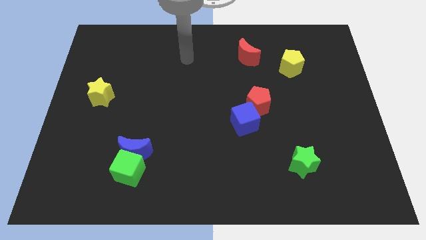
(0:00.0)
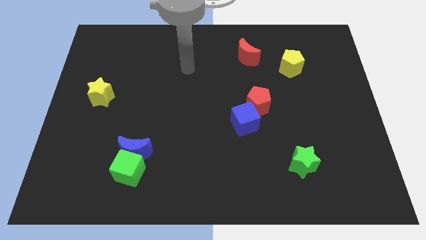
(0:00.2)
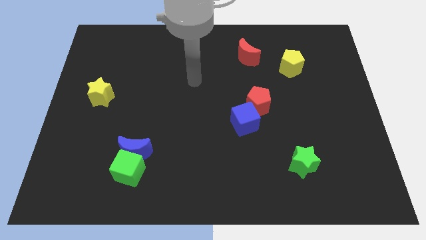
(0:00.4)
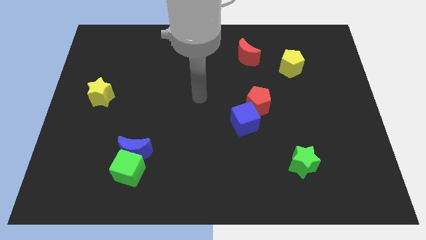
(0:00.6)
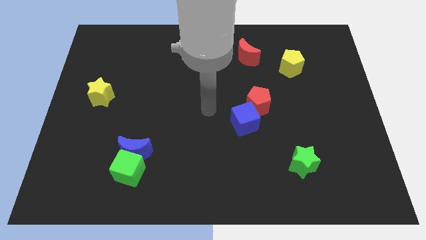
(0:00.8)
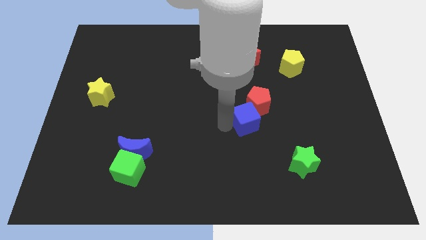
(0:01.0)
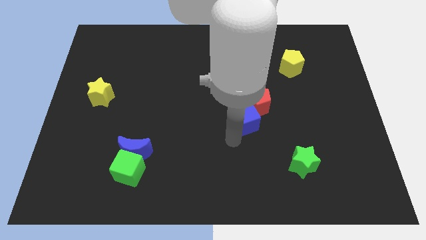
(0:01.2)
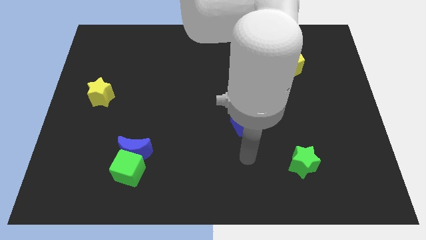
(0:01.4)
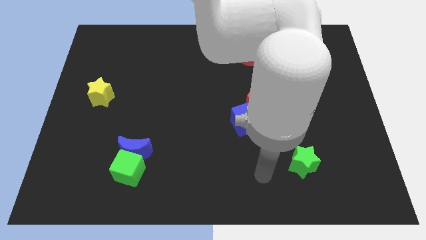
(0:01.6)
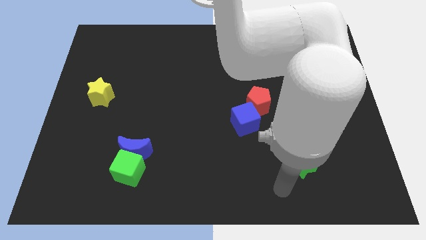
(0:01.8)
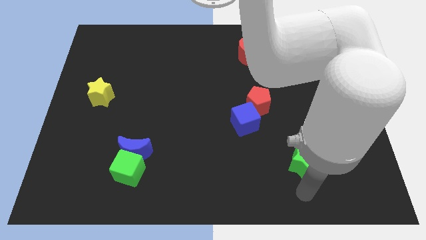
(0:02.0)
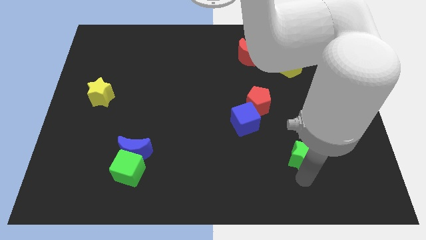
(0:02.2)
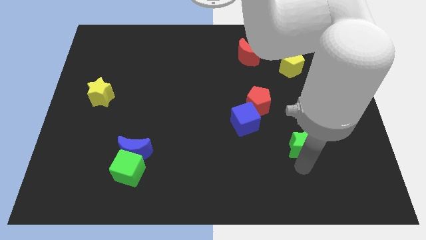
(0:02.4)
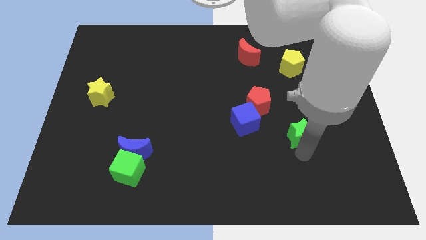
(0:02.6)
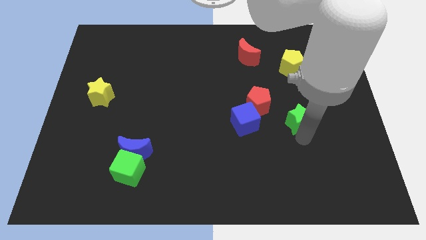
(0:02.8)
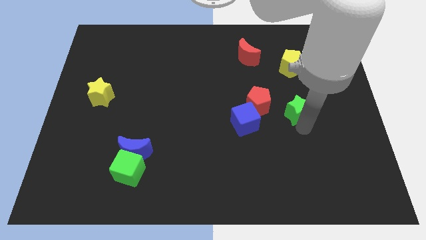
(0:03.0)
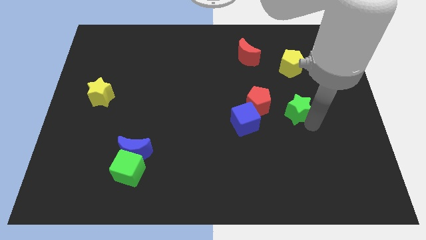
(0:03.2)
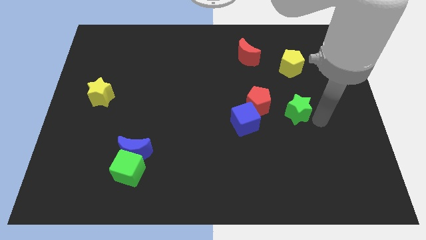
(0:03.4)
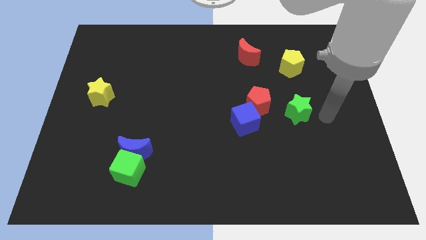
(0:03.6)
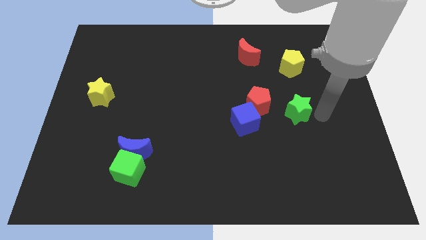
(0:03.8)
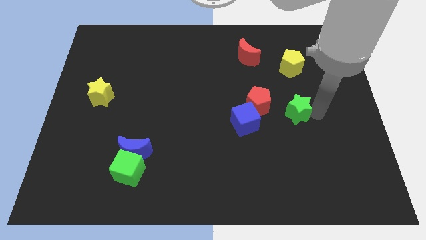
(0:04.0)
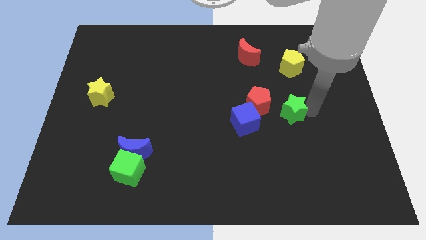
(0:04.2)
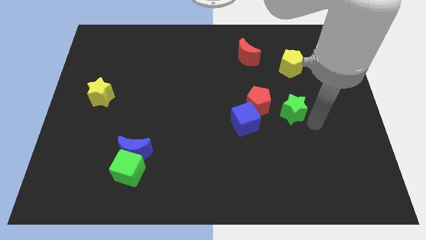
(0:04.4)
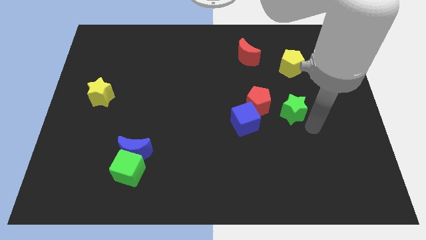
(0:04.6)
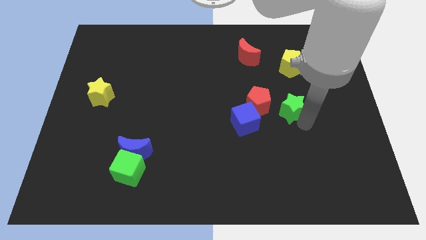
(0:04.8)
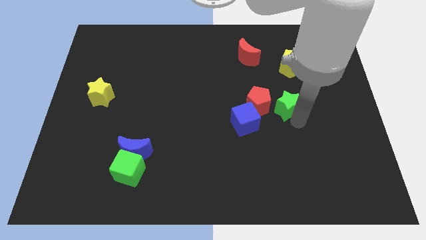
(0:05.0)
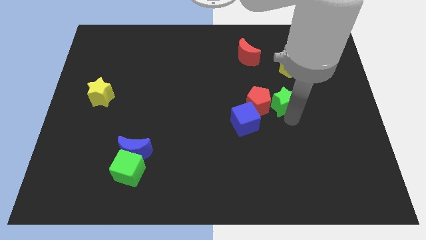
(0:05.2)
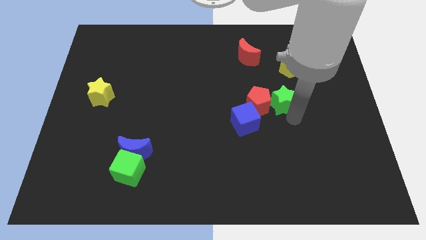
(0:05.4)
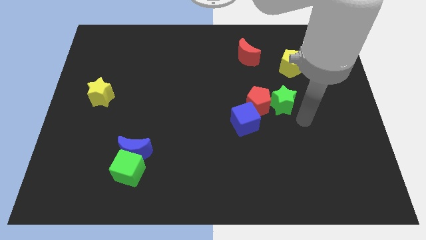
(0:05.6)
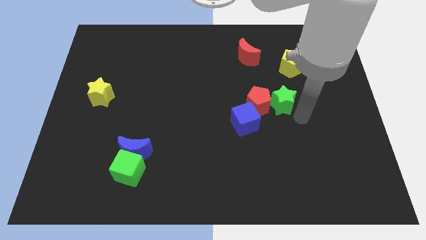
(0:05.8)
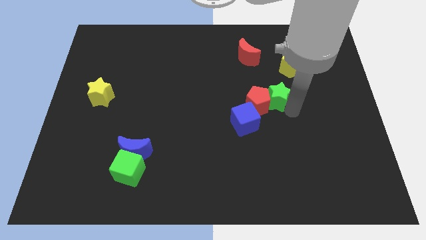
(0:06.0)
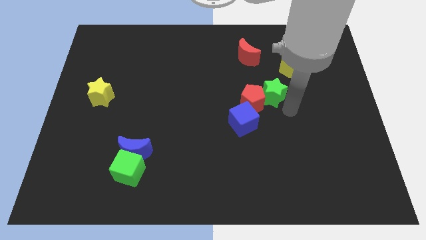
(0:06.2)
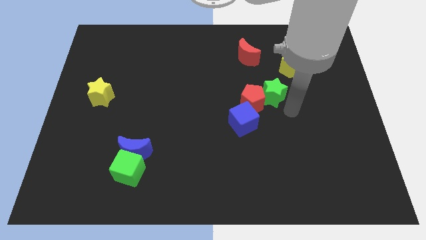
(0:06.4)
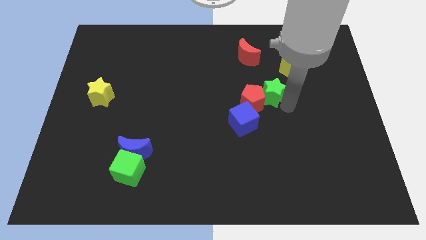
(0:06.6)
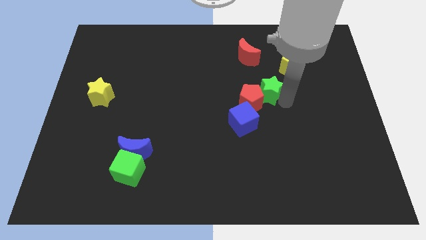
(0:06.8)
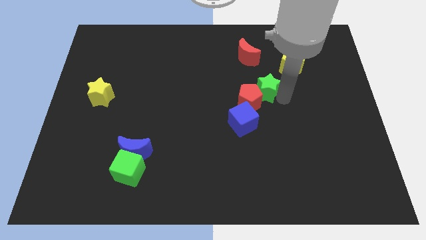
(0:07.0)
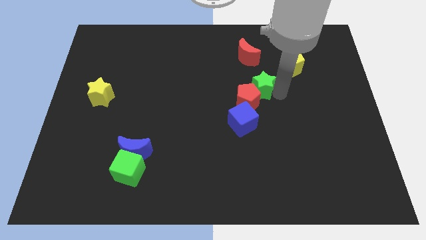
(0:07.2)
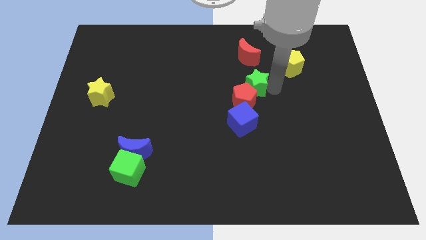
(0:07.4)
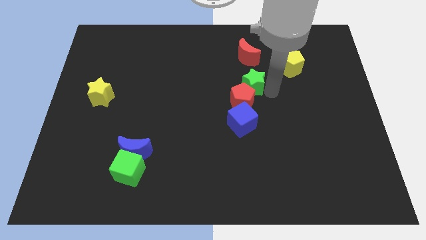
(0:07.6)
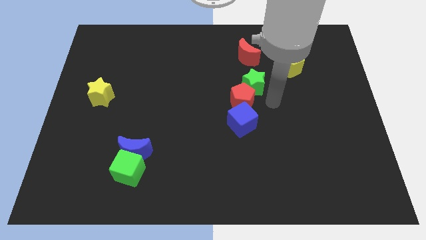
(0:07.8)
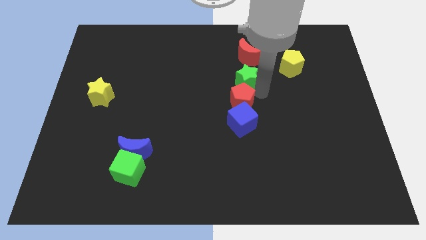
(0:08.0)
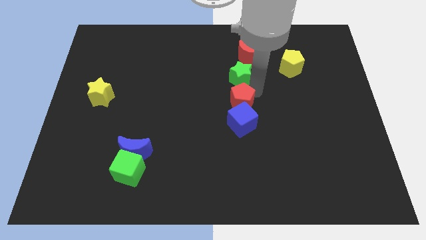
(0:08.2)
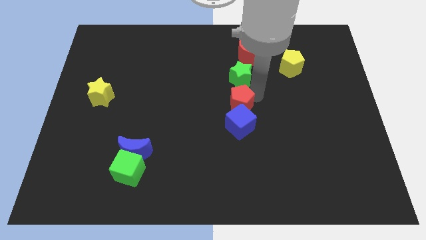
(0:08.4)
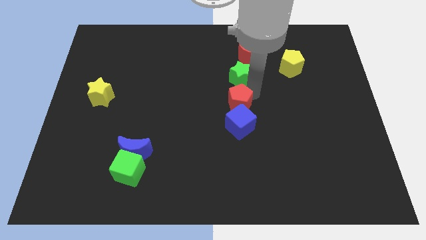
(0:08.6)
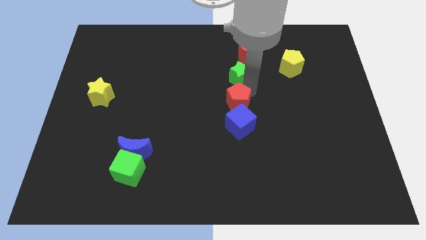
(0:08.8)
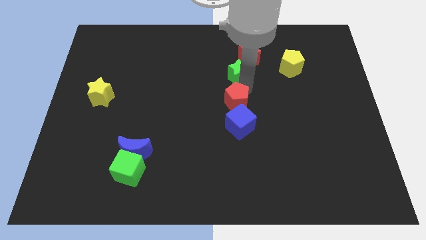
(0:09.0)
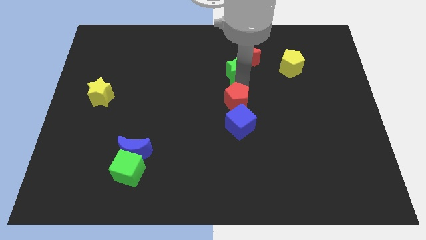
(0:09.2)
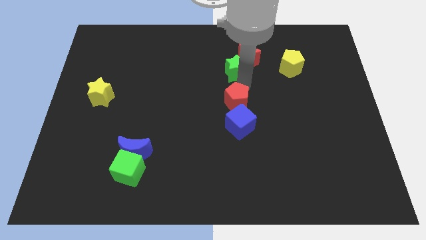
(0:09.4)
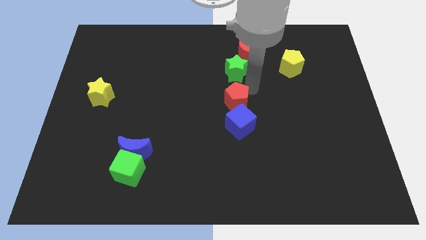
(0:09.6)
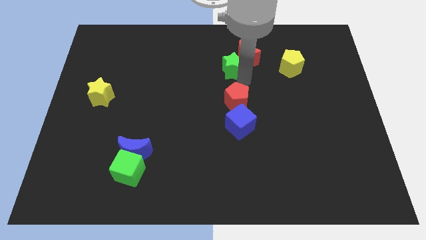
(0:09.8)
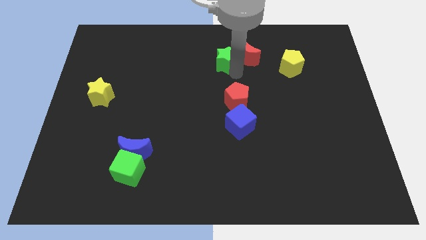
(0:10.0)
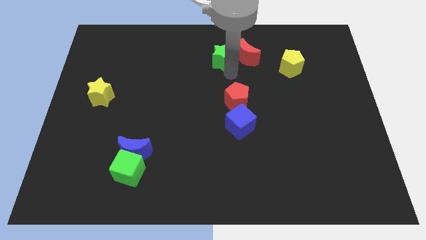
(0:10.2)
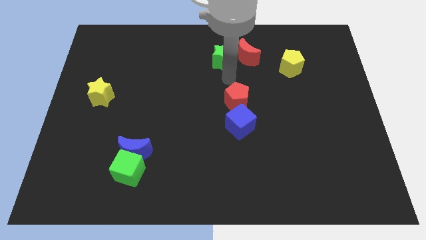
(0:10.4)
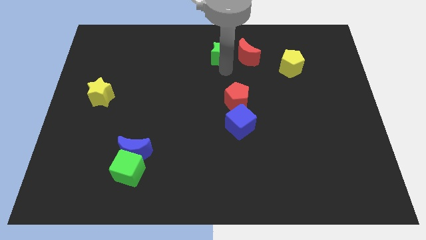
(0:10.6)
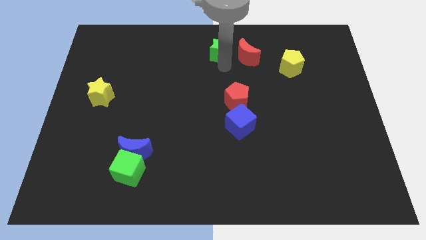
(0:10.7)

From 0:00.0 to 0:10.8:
move the green star to the towards your base

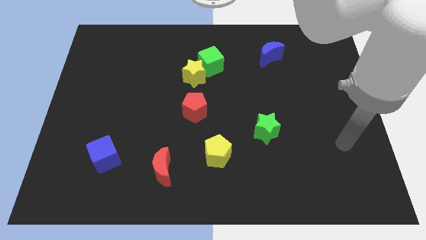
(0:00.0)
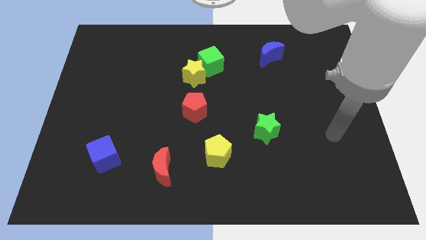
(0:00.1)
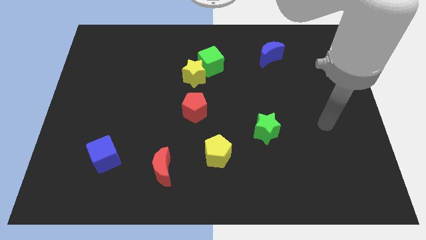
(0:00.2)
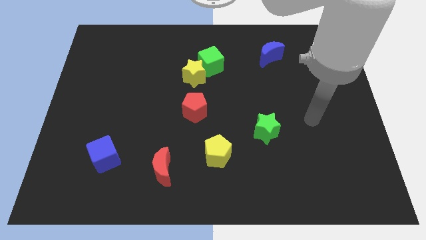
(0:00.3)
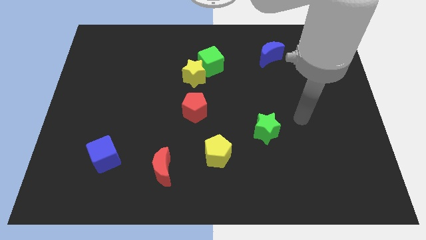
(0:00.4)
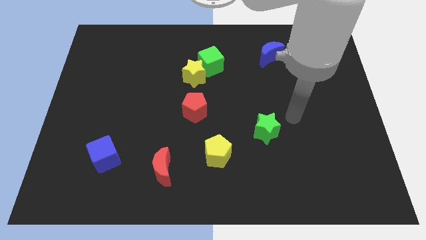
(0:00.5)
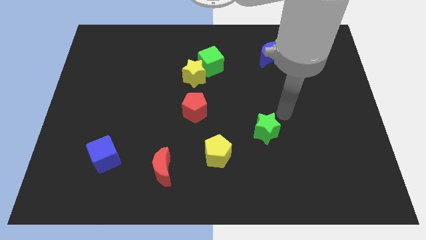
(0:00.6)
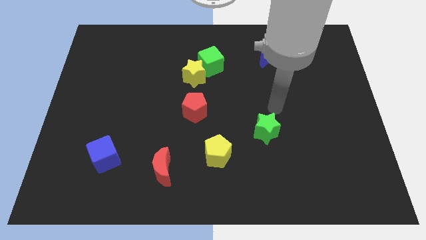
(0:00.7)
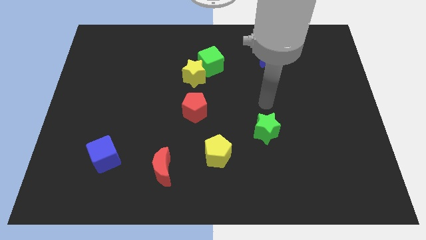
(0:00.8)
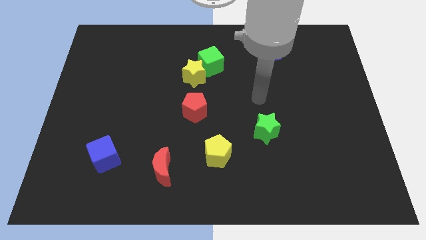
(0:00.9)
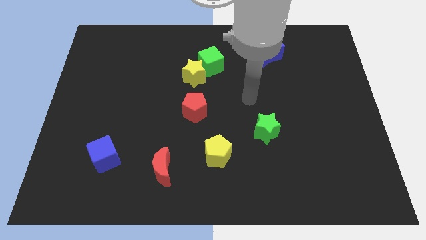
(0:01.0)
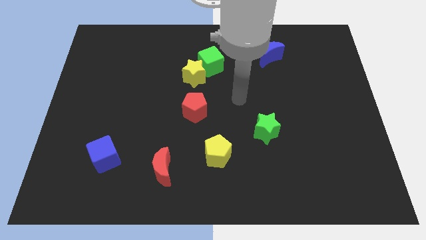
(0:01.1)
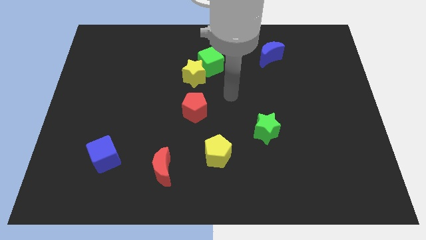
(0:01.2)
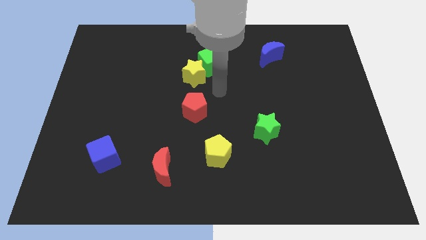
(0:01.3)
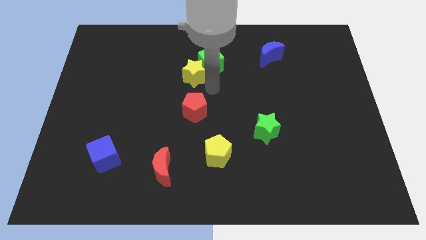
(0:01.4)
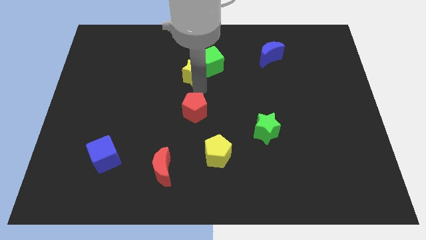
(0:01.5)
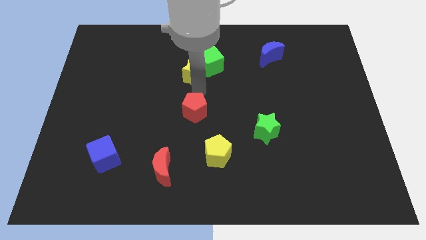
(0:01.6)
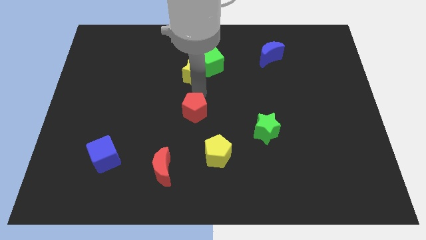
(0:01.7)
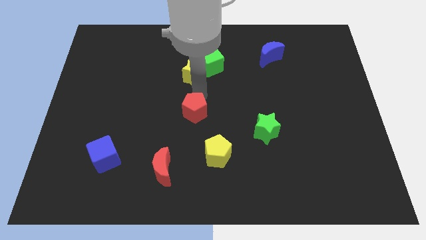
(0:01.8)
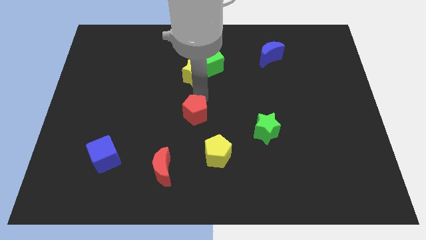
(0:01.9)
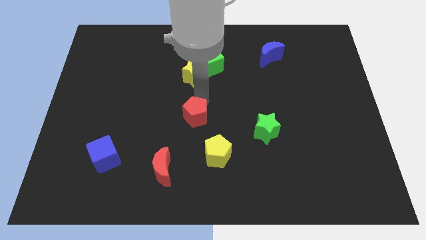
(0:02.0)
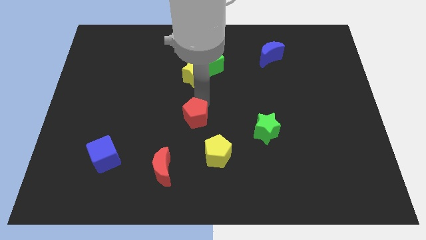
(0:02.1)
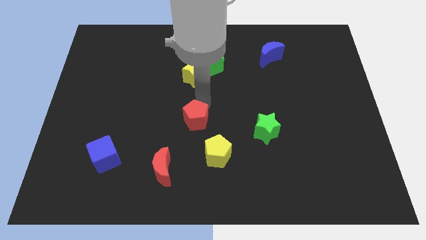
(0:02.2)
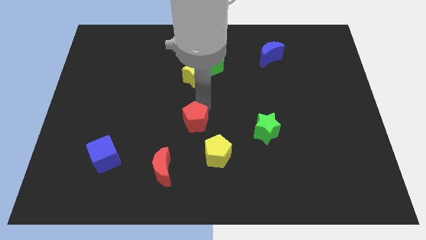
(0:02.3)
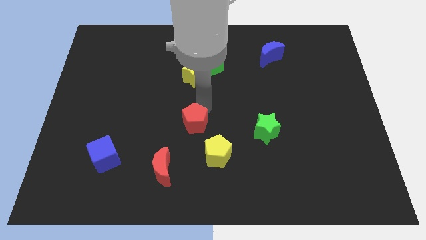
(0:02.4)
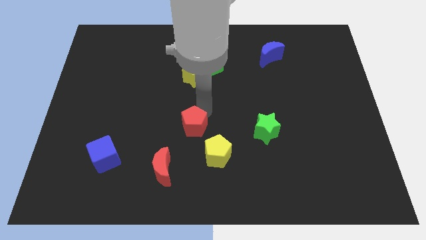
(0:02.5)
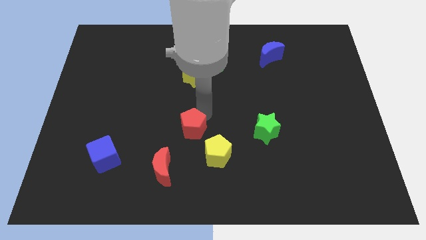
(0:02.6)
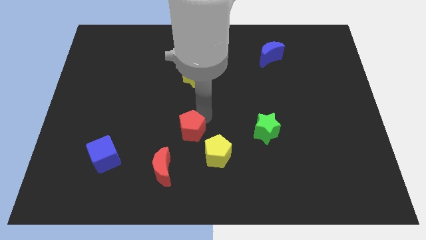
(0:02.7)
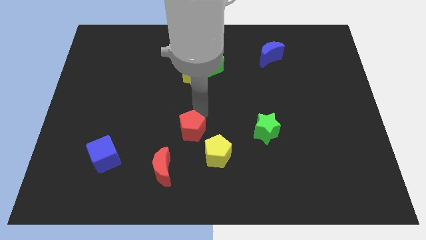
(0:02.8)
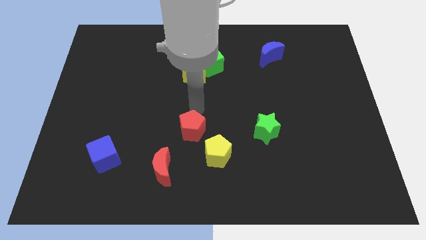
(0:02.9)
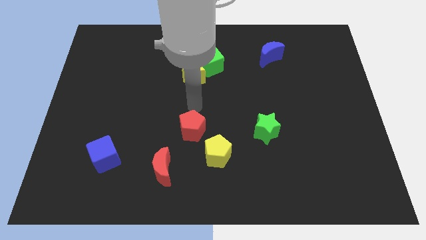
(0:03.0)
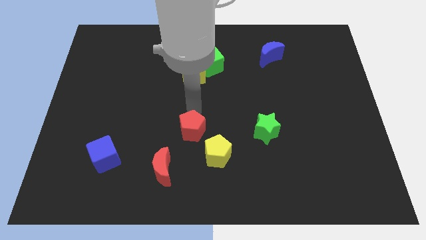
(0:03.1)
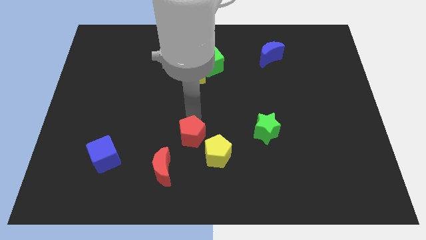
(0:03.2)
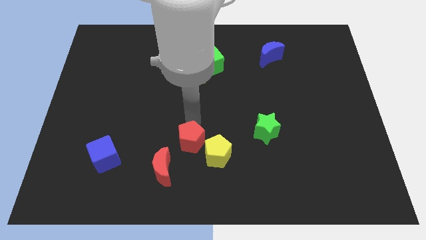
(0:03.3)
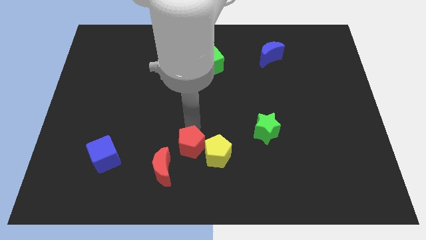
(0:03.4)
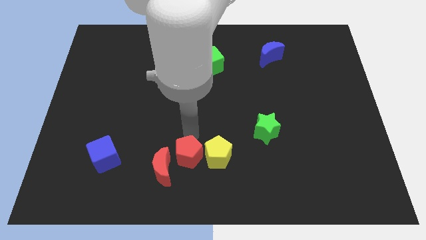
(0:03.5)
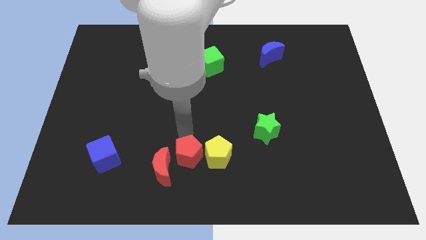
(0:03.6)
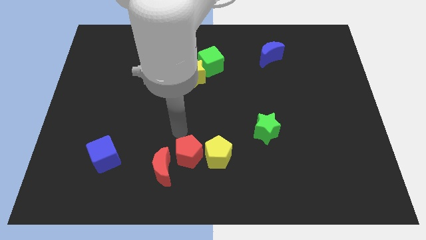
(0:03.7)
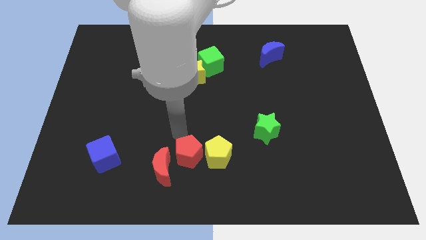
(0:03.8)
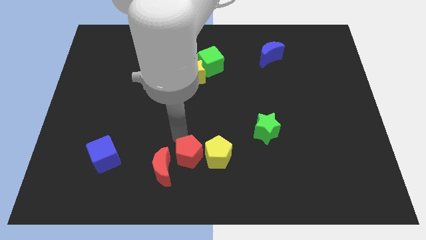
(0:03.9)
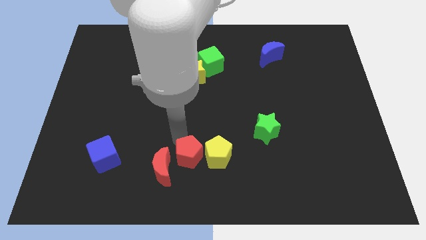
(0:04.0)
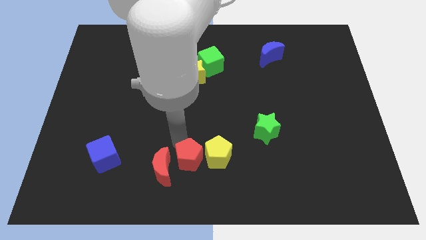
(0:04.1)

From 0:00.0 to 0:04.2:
put the red pentagon to the bottom side
